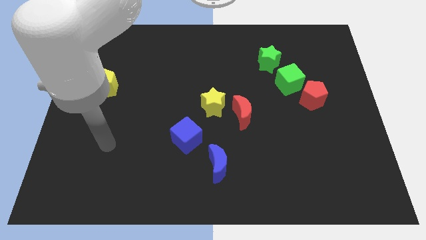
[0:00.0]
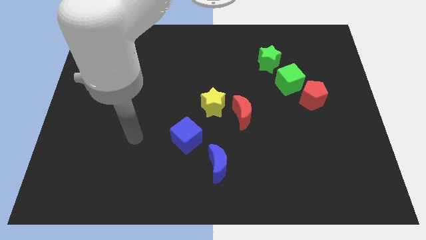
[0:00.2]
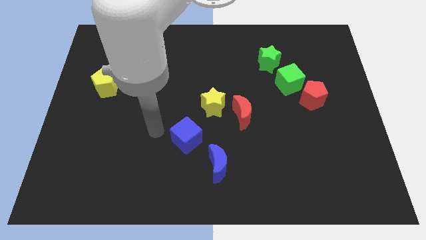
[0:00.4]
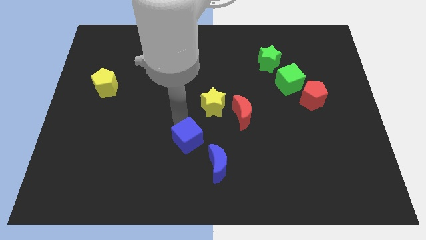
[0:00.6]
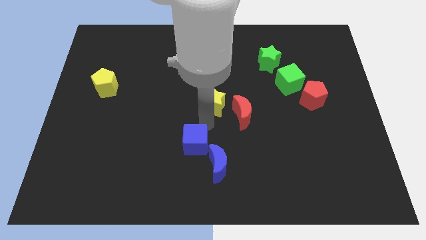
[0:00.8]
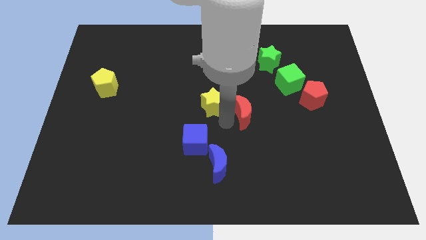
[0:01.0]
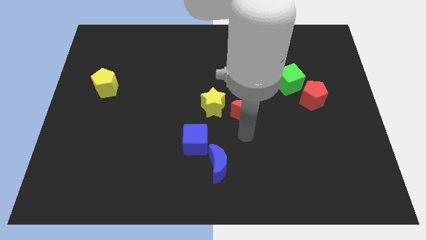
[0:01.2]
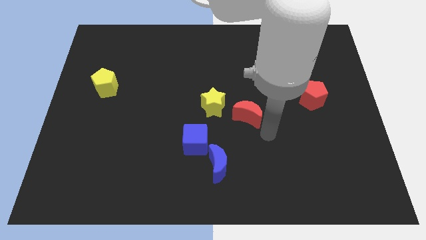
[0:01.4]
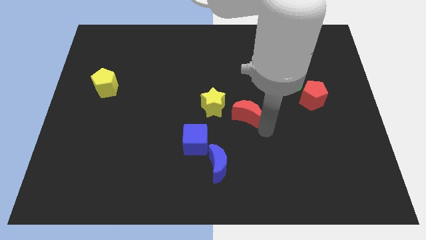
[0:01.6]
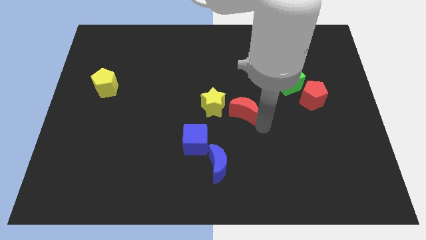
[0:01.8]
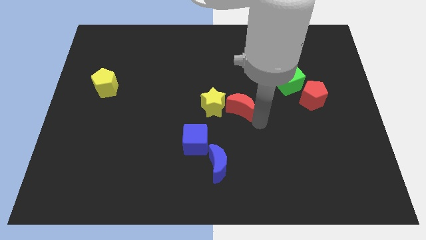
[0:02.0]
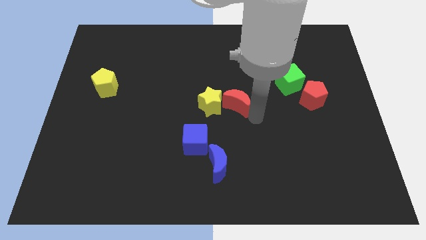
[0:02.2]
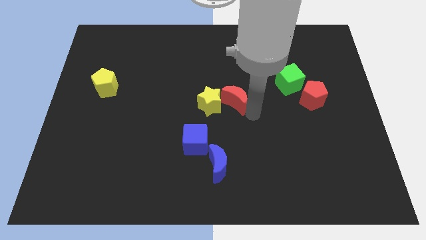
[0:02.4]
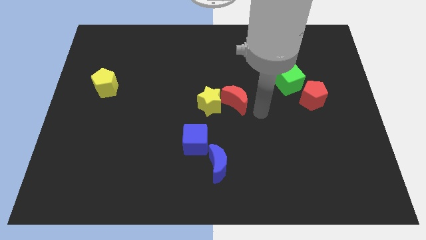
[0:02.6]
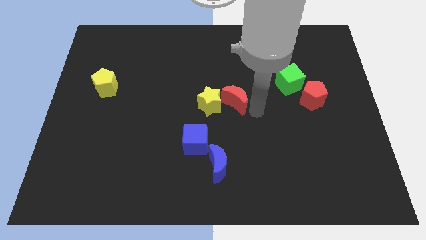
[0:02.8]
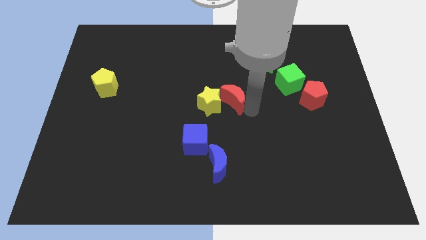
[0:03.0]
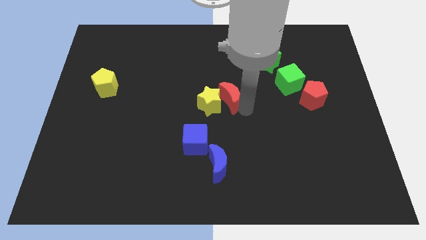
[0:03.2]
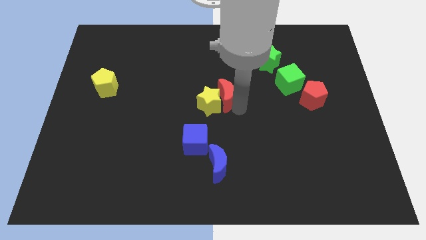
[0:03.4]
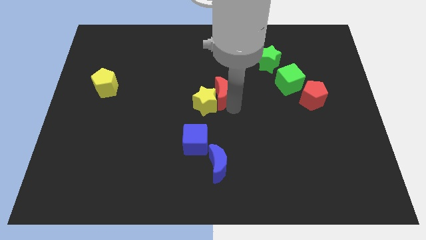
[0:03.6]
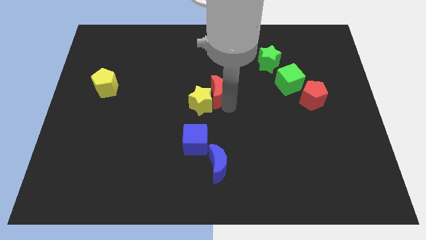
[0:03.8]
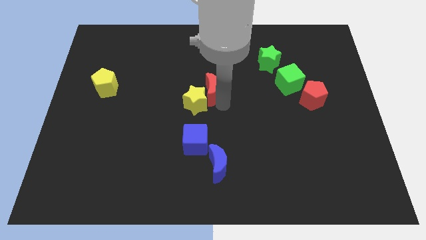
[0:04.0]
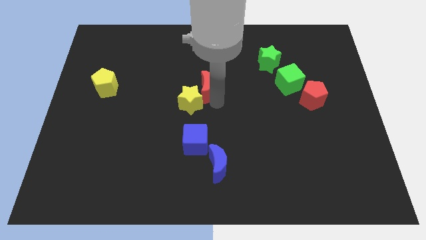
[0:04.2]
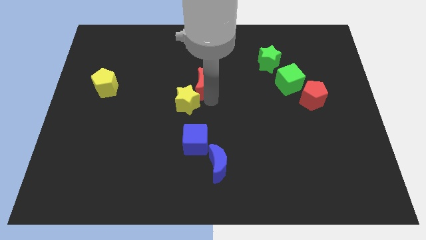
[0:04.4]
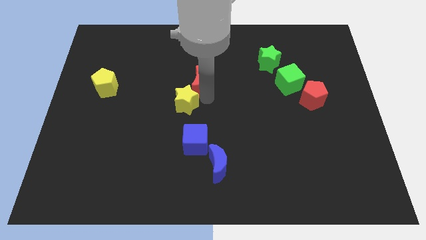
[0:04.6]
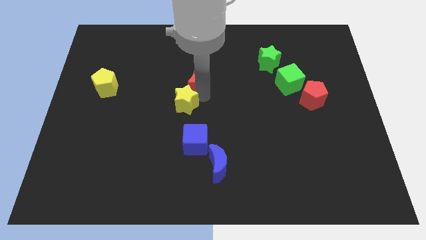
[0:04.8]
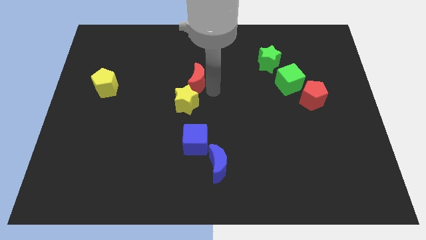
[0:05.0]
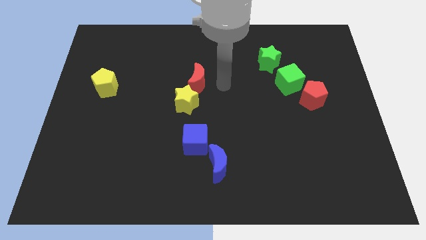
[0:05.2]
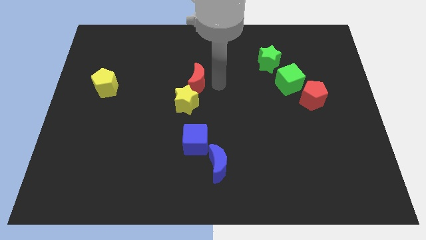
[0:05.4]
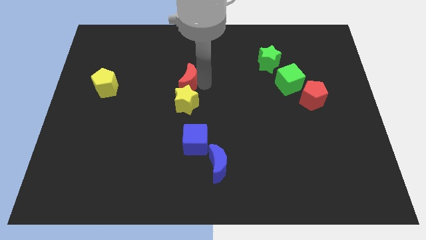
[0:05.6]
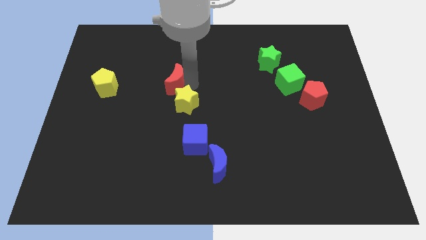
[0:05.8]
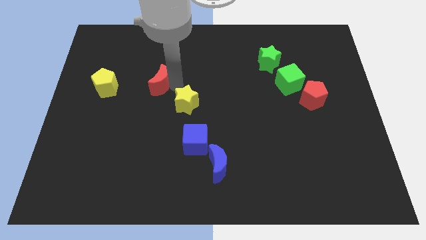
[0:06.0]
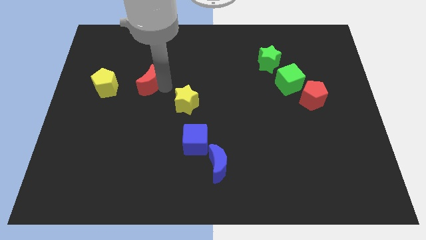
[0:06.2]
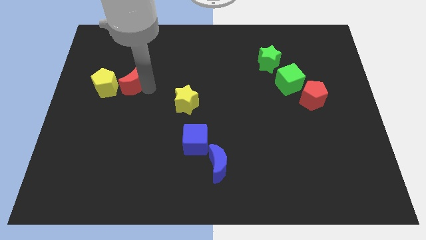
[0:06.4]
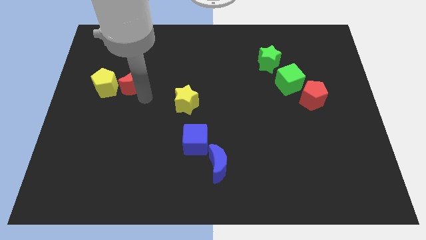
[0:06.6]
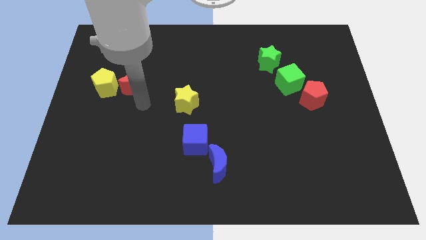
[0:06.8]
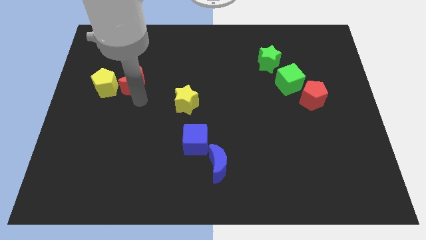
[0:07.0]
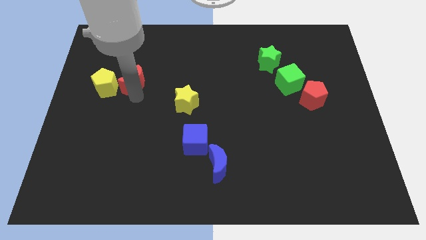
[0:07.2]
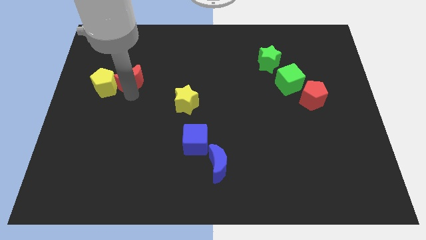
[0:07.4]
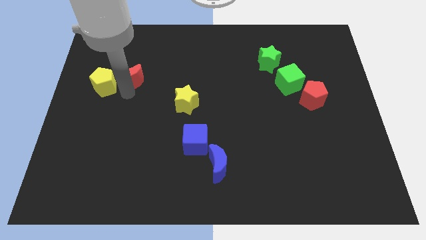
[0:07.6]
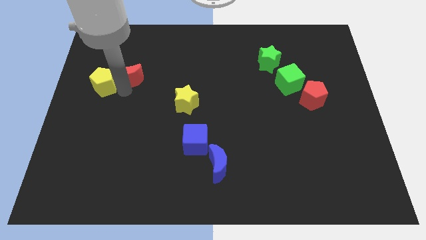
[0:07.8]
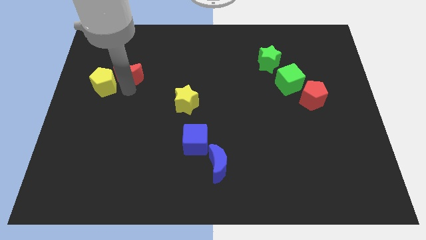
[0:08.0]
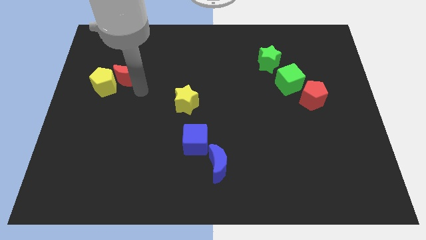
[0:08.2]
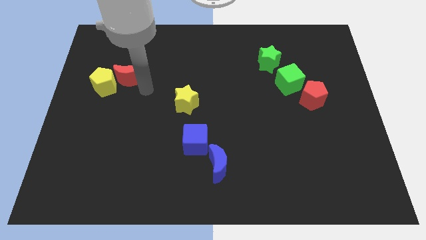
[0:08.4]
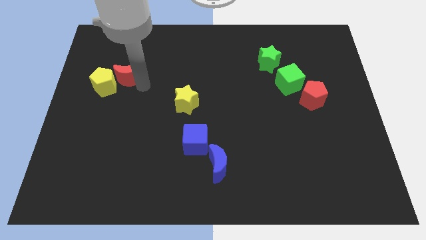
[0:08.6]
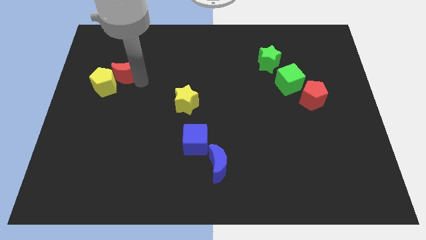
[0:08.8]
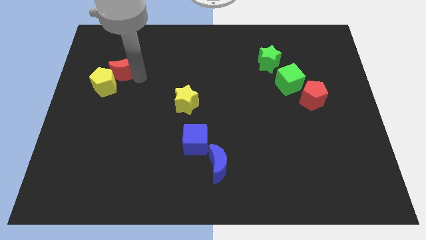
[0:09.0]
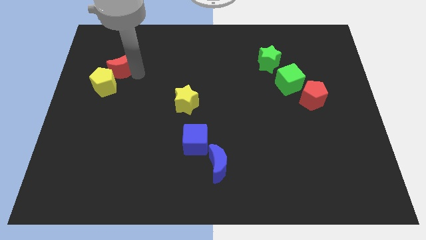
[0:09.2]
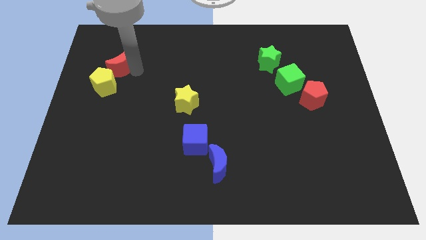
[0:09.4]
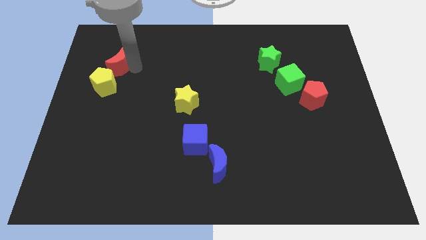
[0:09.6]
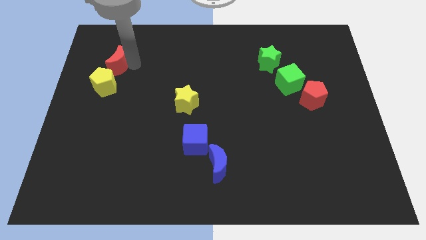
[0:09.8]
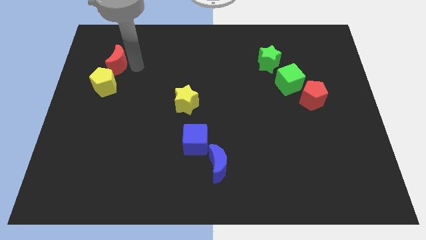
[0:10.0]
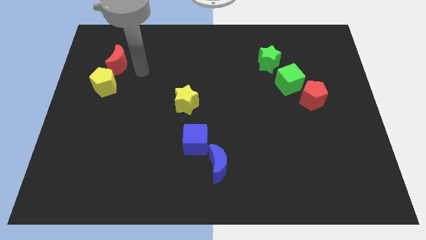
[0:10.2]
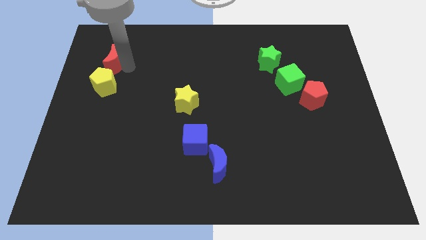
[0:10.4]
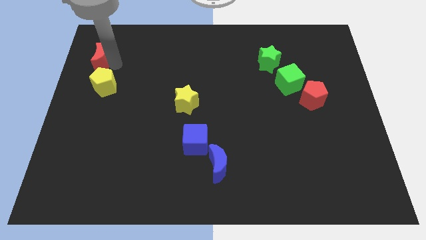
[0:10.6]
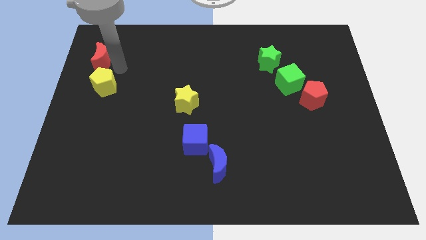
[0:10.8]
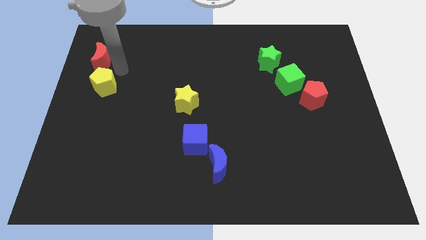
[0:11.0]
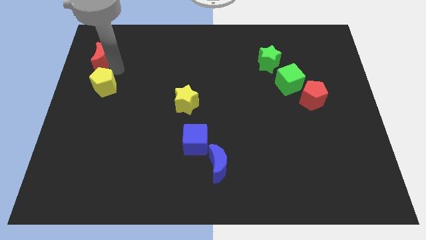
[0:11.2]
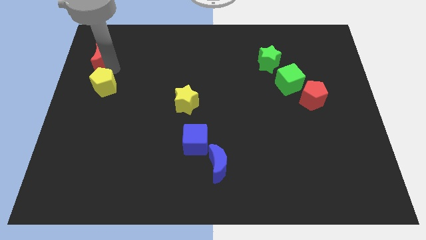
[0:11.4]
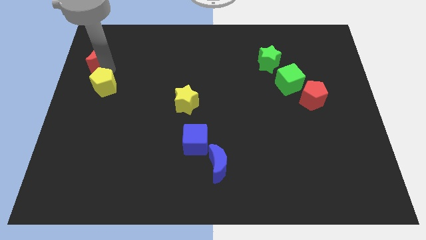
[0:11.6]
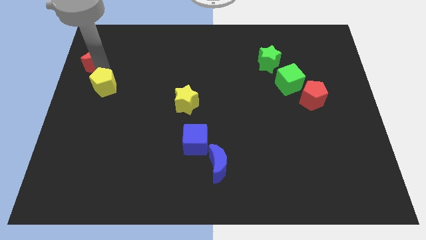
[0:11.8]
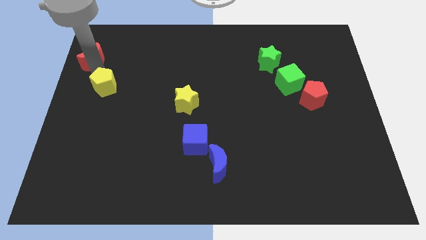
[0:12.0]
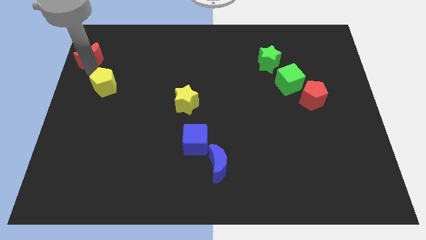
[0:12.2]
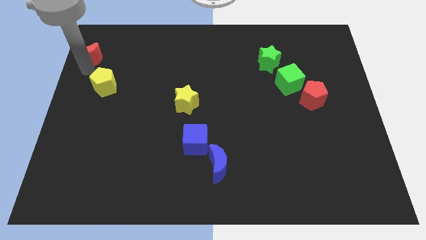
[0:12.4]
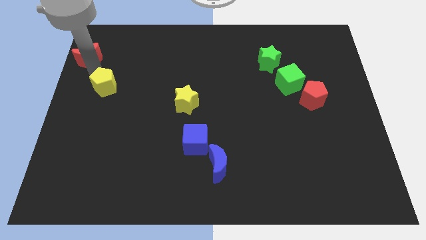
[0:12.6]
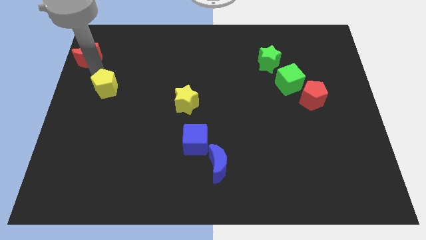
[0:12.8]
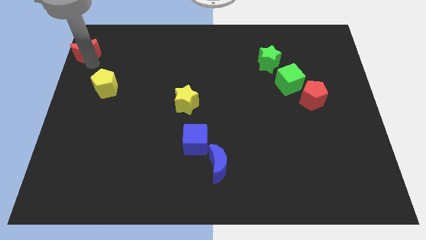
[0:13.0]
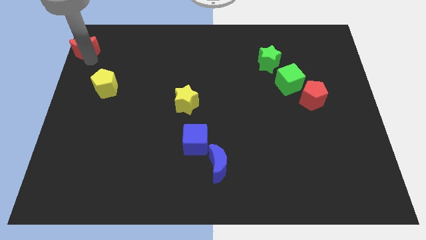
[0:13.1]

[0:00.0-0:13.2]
push the red moon to the top left of the board
